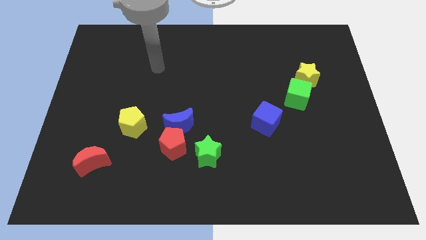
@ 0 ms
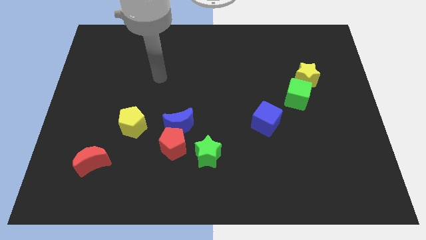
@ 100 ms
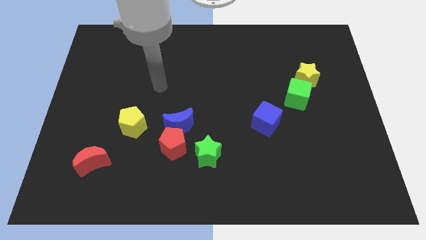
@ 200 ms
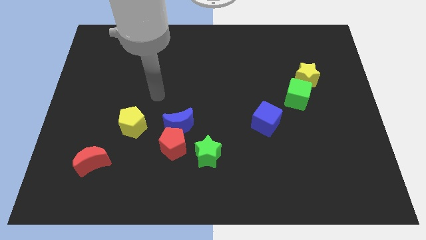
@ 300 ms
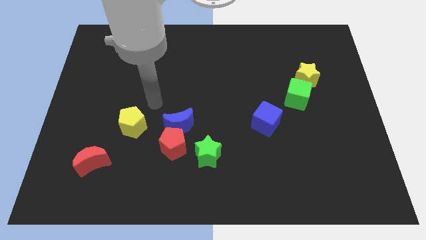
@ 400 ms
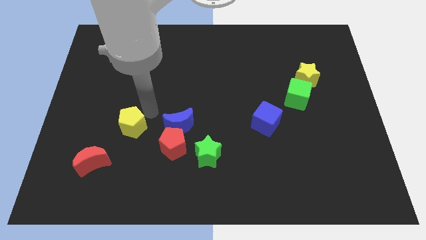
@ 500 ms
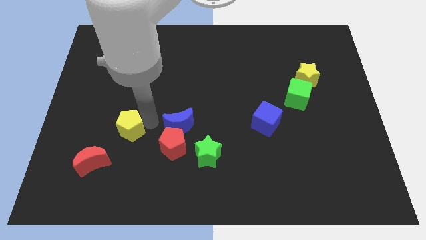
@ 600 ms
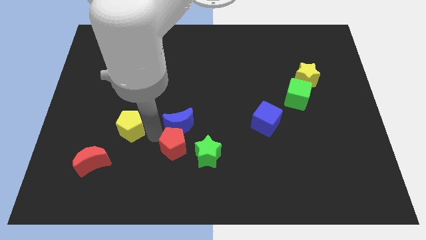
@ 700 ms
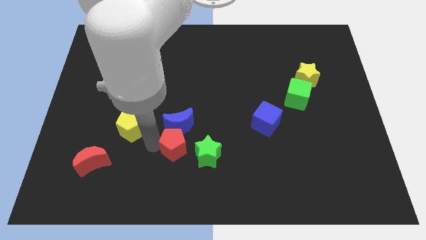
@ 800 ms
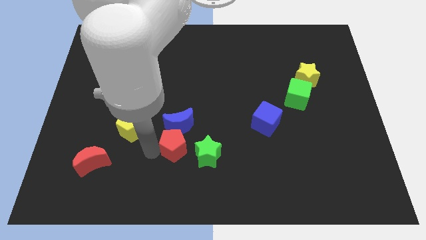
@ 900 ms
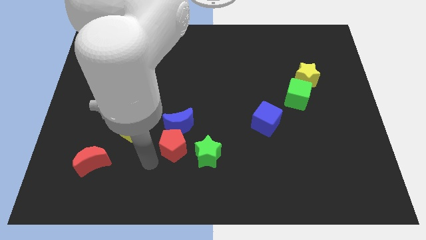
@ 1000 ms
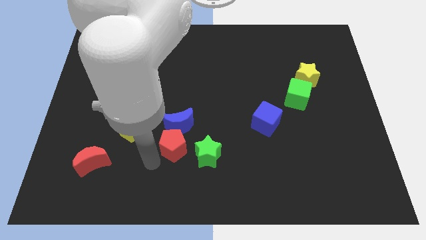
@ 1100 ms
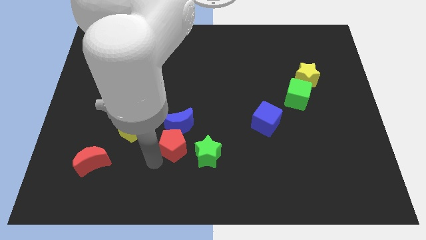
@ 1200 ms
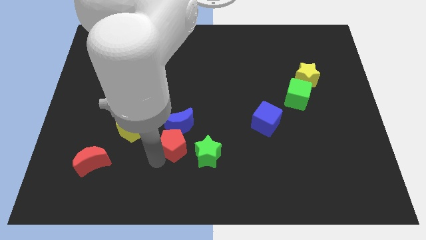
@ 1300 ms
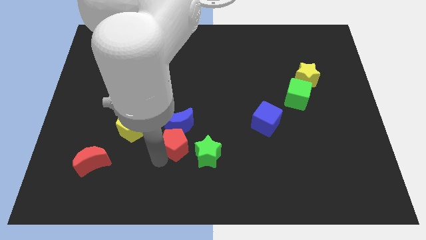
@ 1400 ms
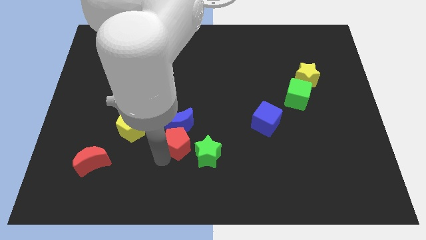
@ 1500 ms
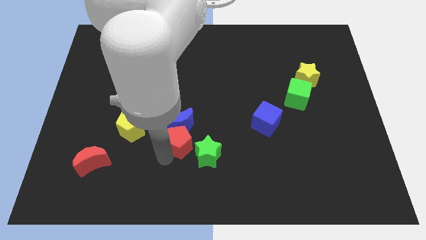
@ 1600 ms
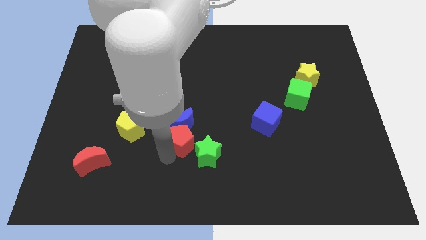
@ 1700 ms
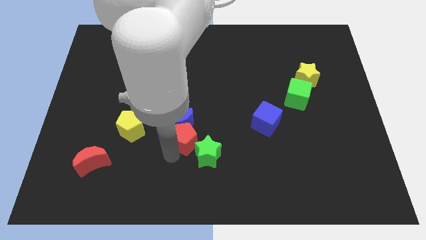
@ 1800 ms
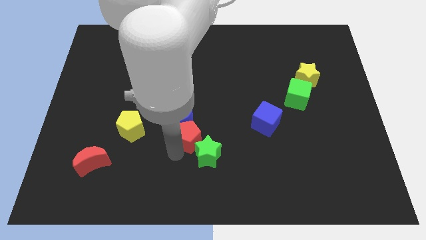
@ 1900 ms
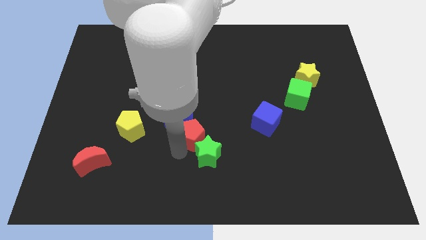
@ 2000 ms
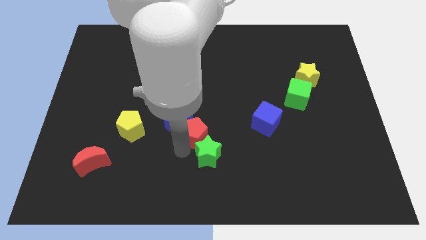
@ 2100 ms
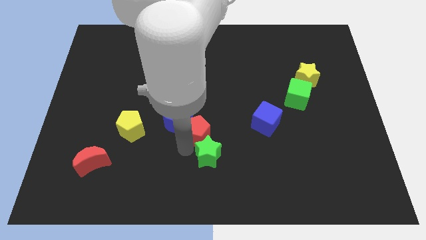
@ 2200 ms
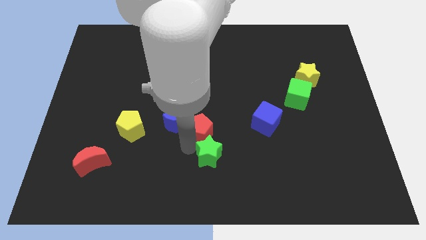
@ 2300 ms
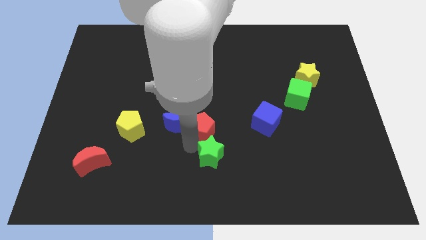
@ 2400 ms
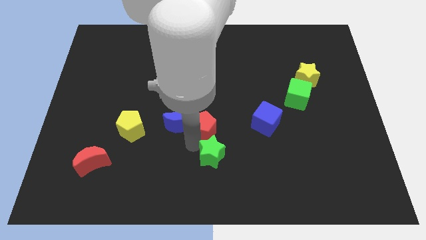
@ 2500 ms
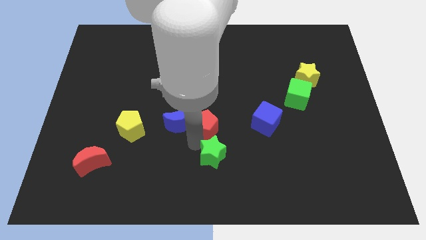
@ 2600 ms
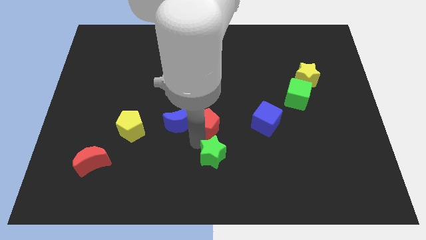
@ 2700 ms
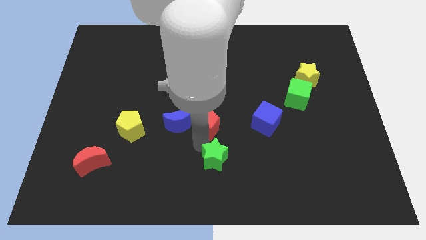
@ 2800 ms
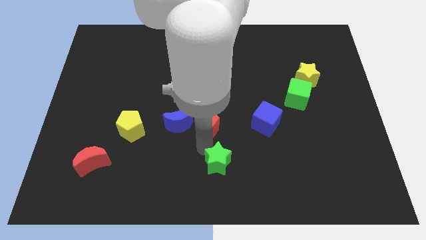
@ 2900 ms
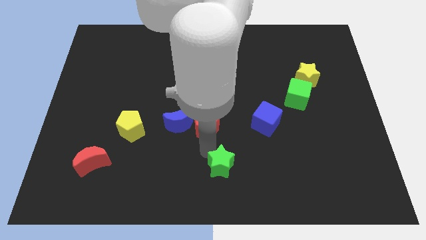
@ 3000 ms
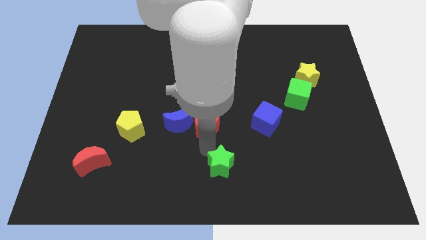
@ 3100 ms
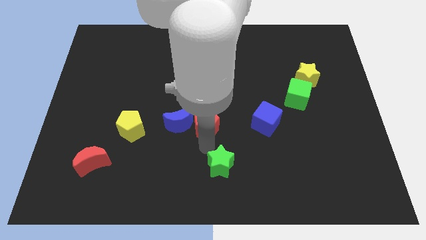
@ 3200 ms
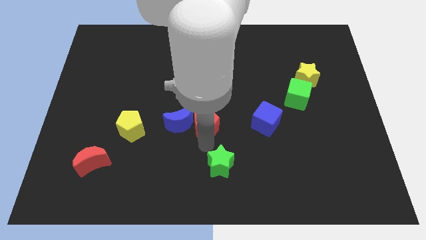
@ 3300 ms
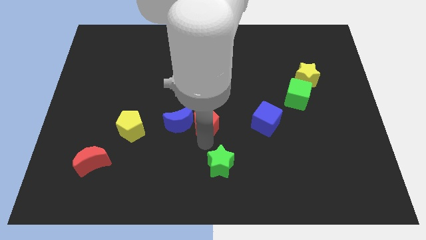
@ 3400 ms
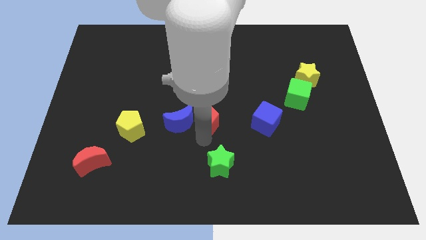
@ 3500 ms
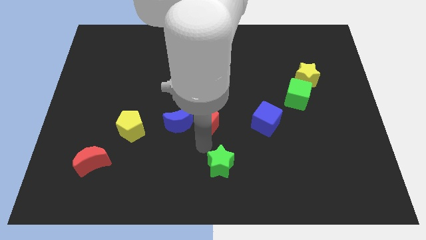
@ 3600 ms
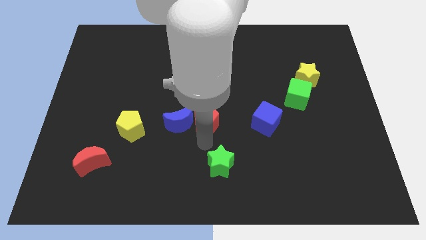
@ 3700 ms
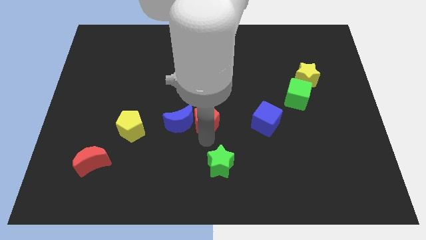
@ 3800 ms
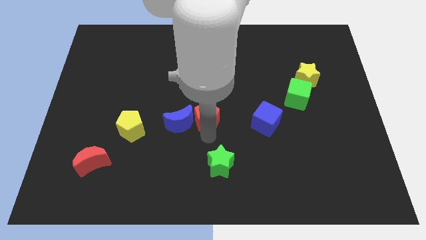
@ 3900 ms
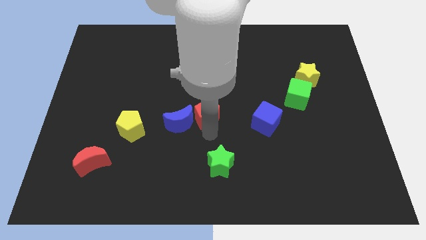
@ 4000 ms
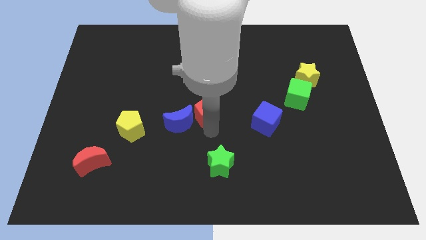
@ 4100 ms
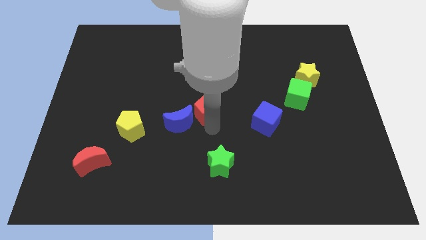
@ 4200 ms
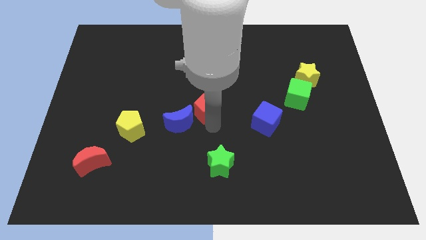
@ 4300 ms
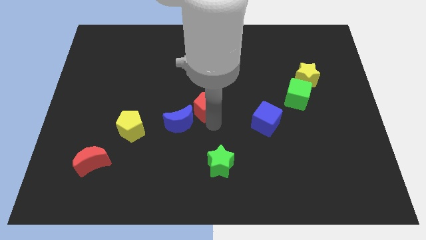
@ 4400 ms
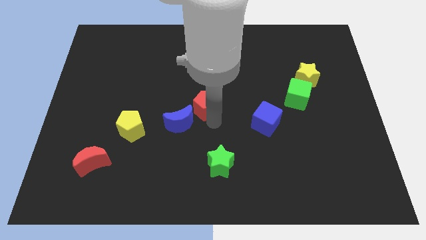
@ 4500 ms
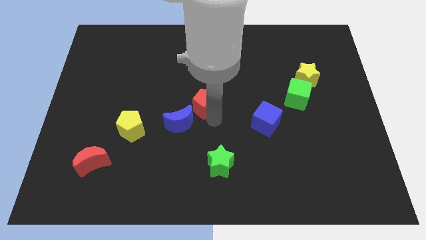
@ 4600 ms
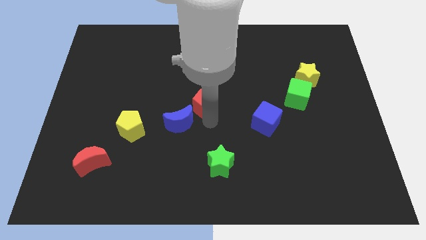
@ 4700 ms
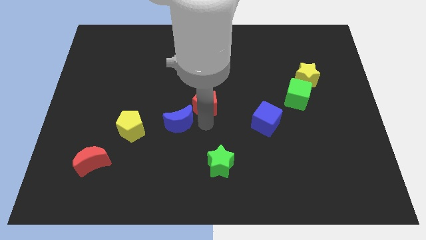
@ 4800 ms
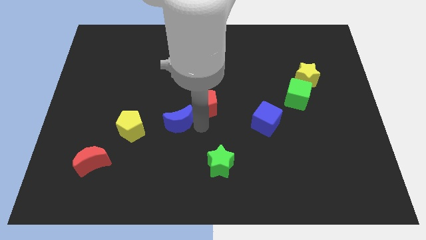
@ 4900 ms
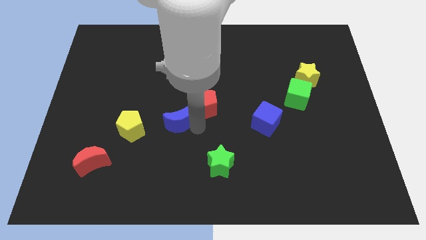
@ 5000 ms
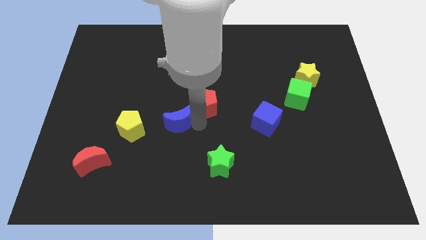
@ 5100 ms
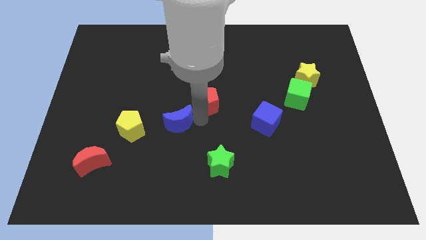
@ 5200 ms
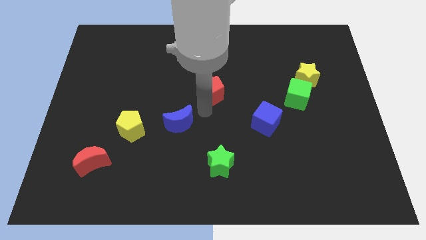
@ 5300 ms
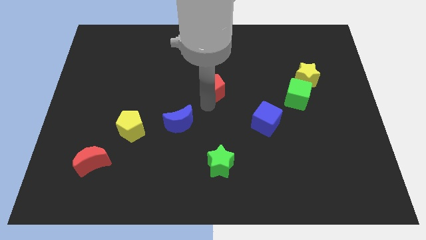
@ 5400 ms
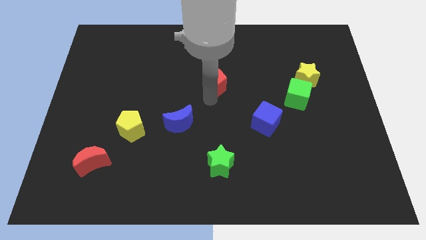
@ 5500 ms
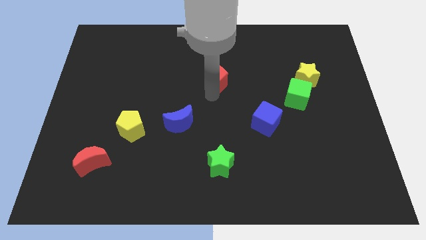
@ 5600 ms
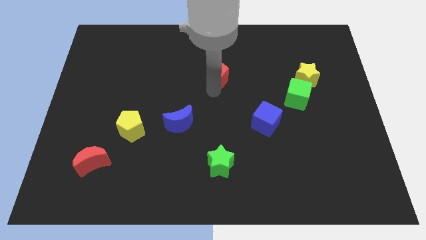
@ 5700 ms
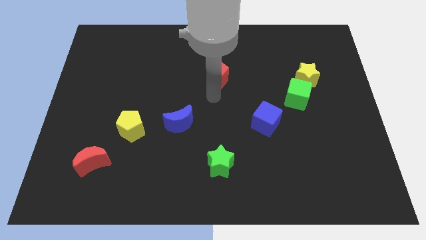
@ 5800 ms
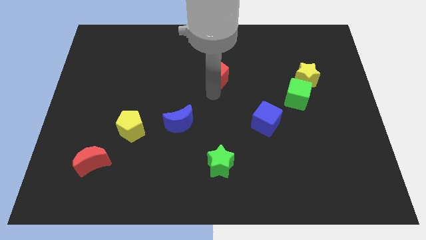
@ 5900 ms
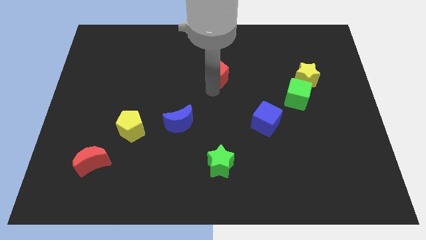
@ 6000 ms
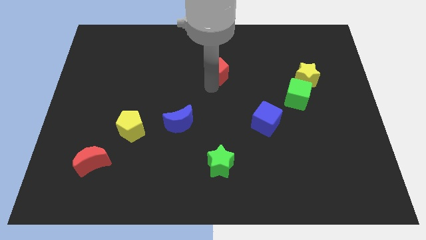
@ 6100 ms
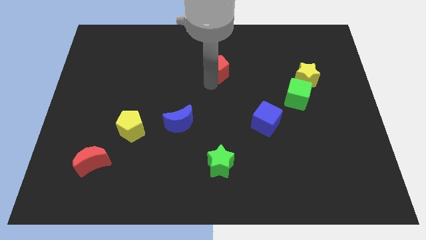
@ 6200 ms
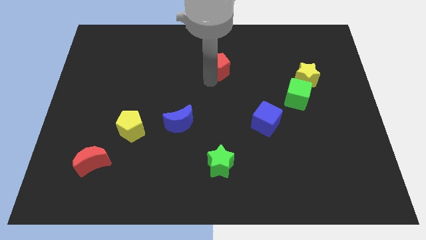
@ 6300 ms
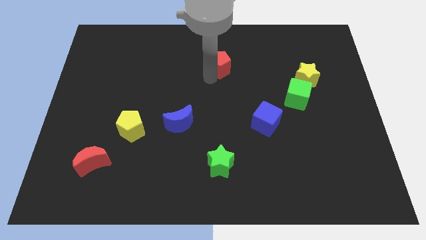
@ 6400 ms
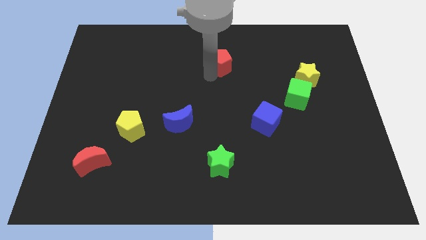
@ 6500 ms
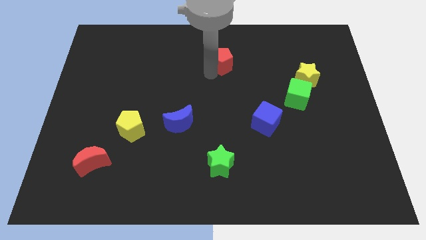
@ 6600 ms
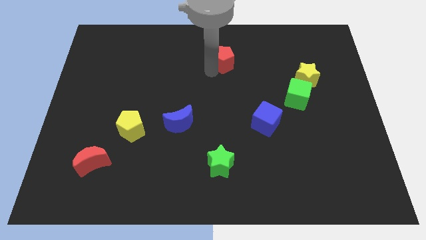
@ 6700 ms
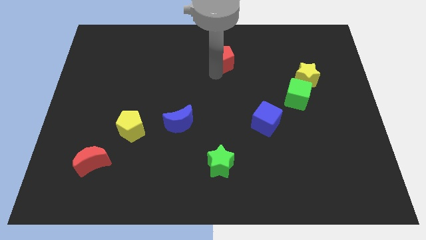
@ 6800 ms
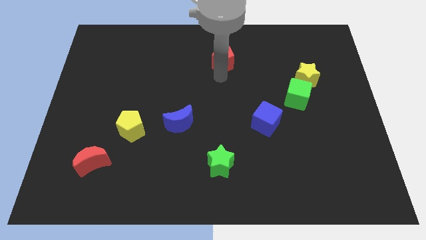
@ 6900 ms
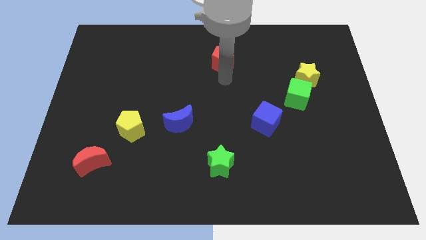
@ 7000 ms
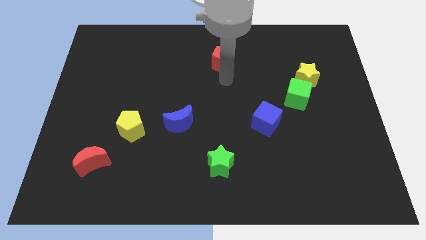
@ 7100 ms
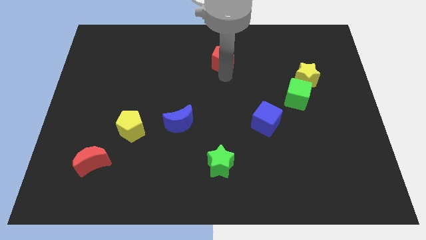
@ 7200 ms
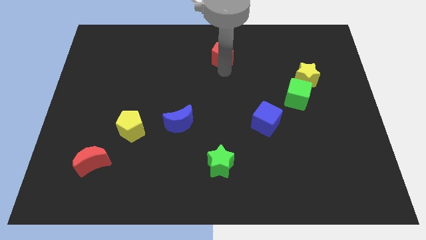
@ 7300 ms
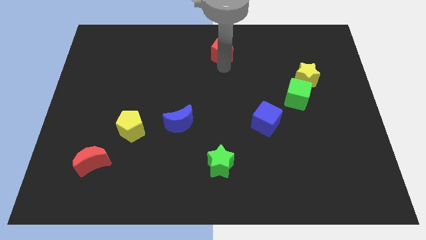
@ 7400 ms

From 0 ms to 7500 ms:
move the red pentagon to the top side
